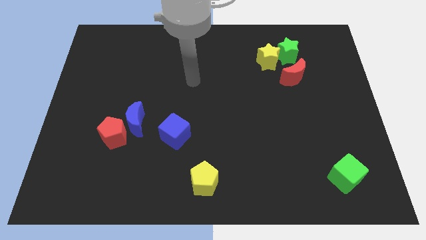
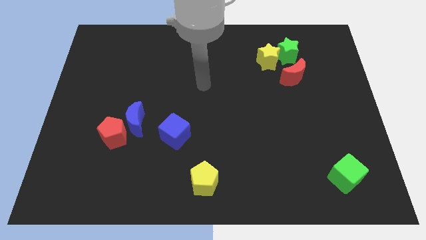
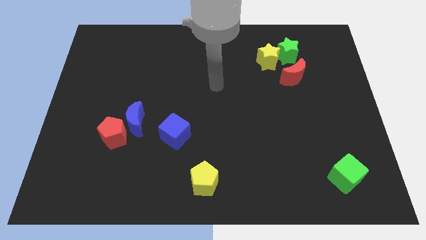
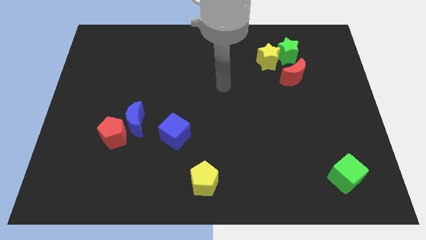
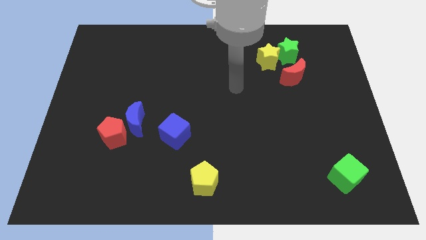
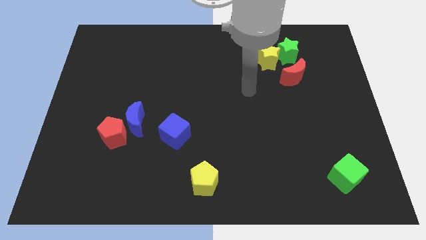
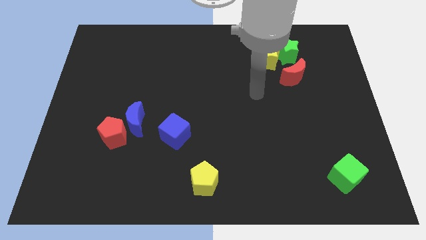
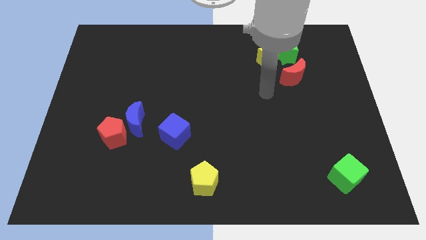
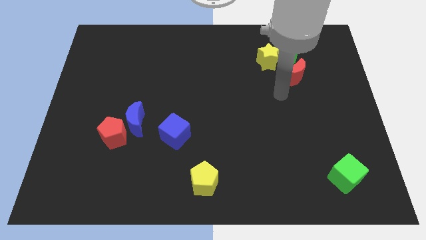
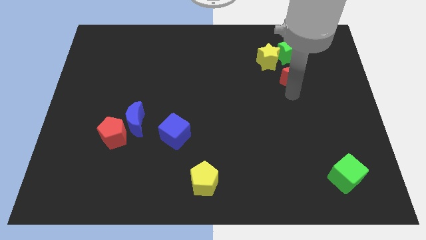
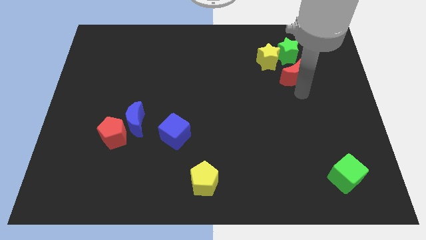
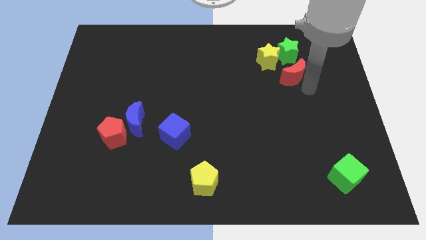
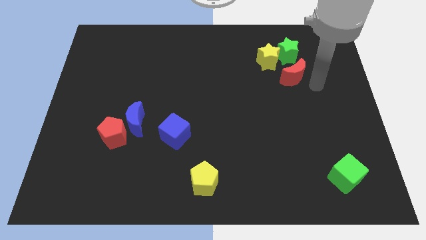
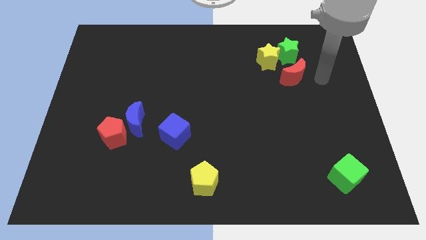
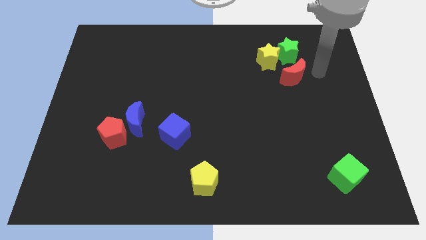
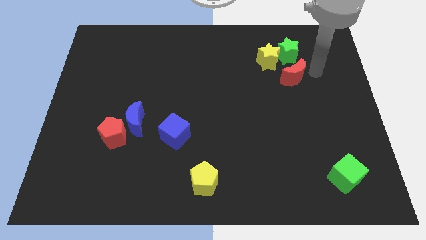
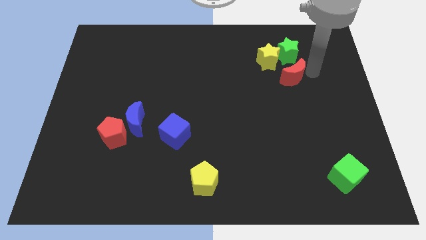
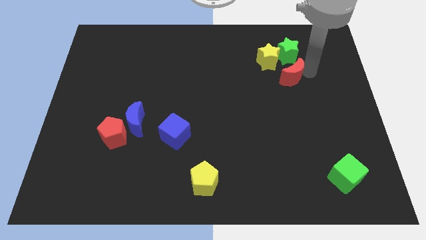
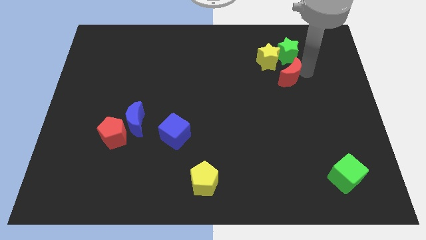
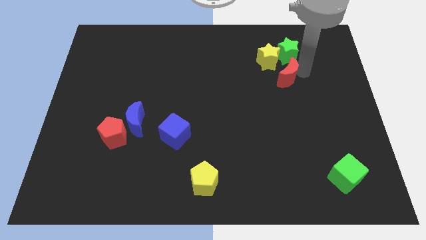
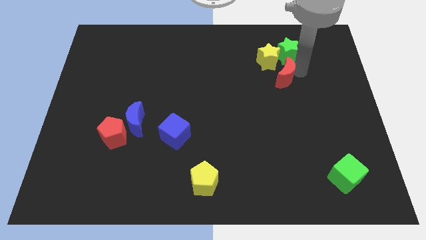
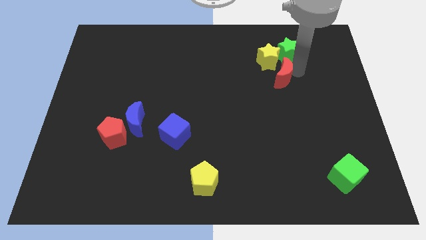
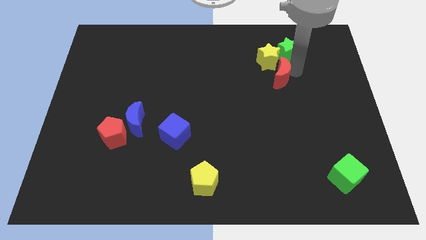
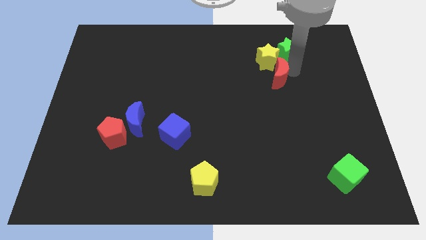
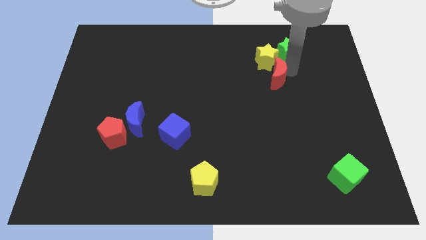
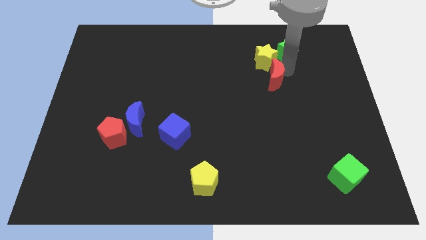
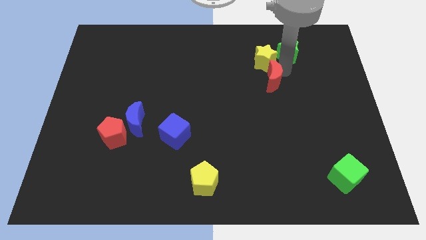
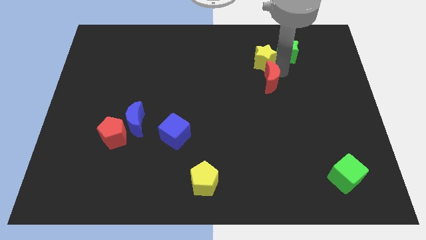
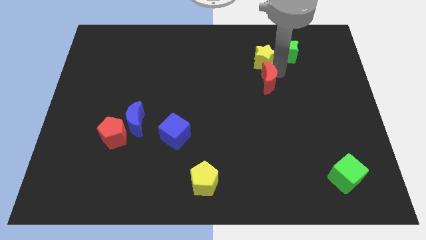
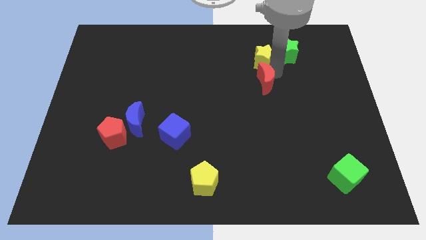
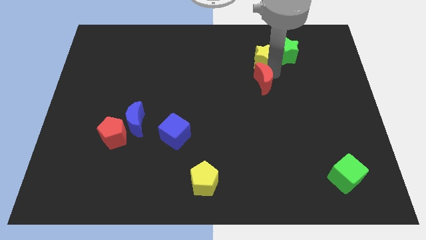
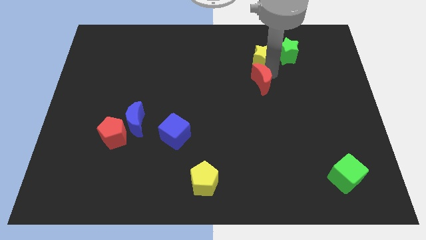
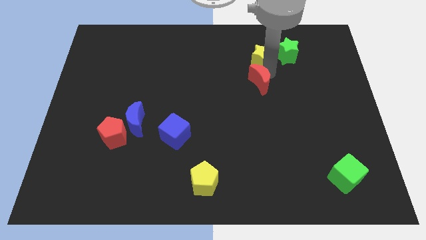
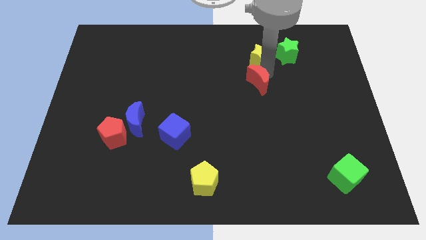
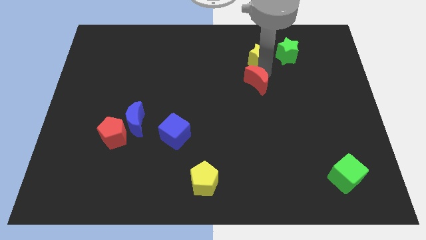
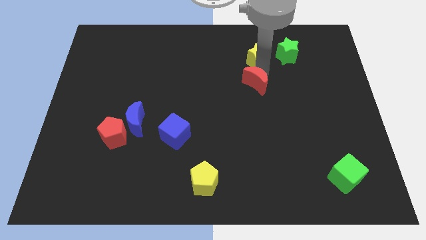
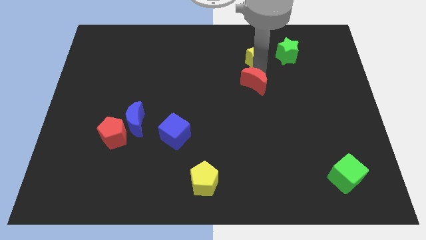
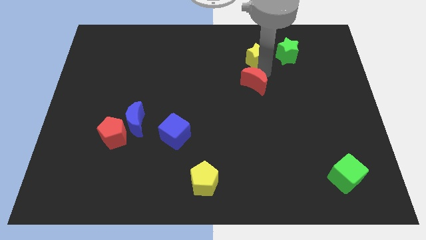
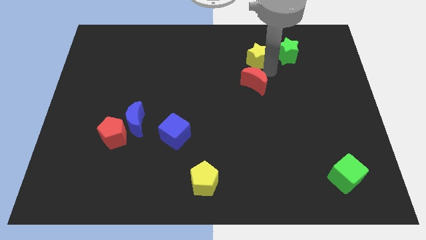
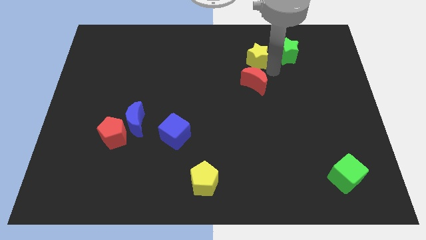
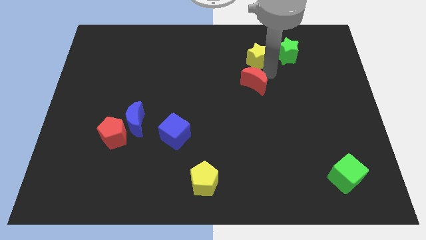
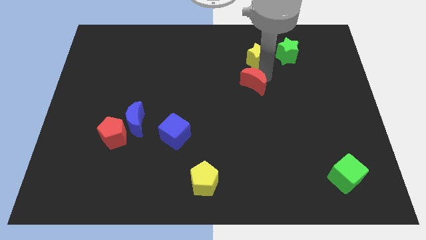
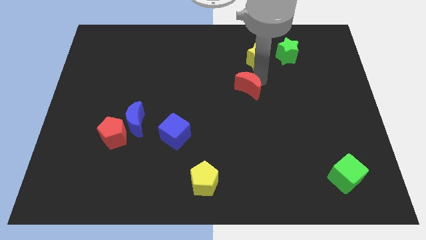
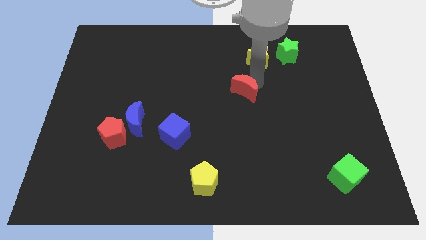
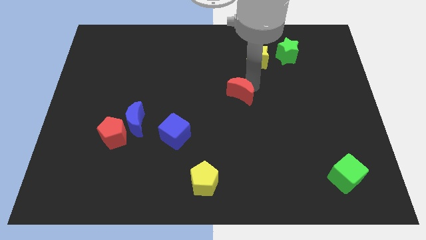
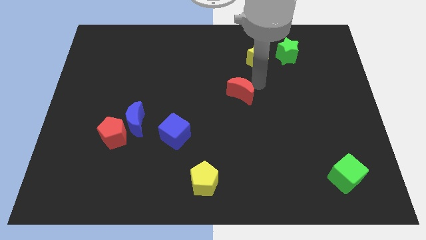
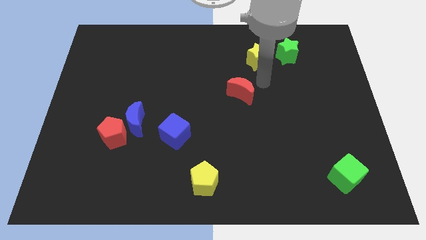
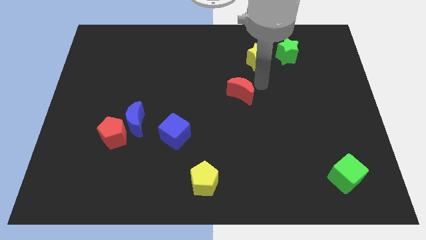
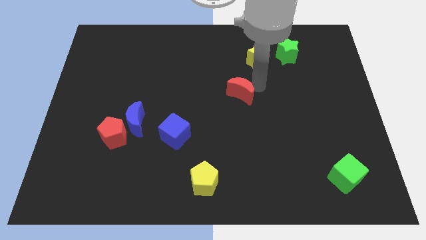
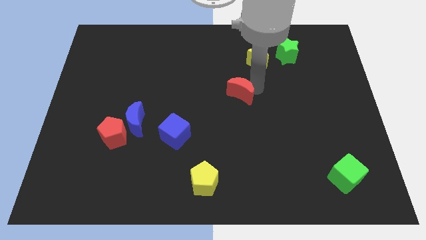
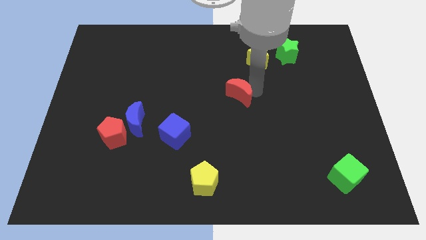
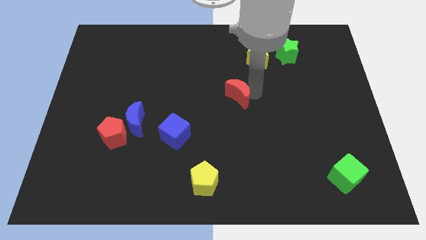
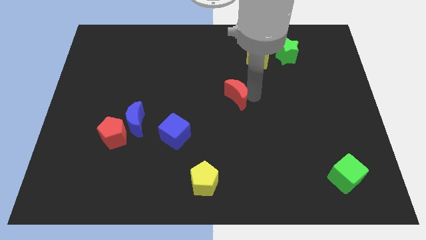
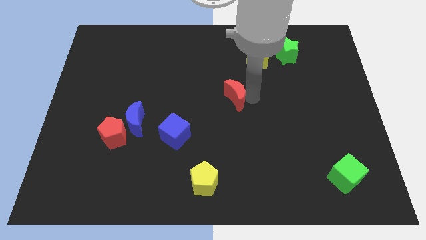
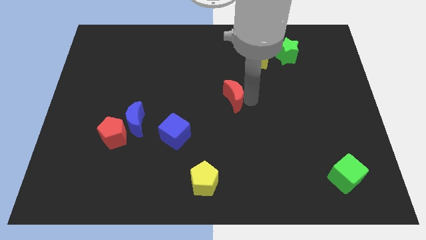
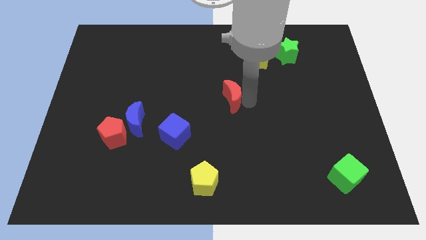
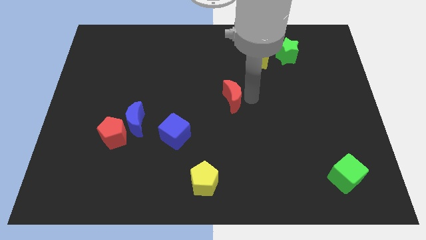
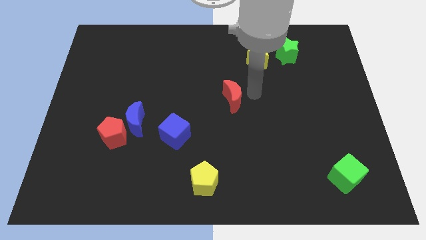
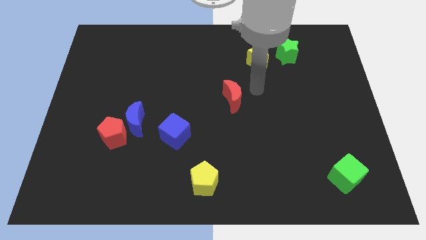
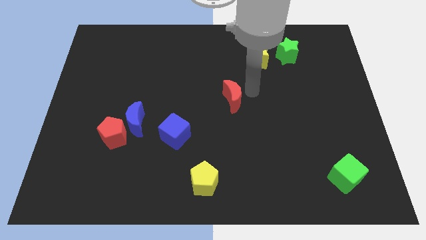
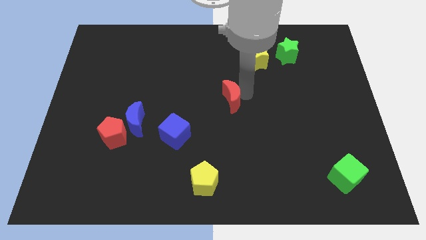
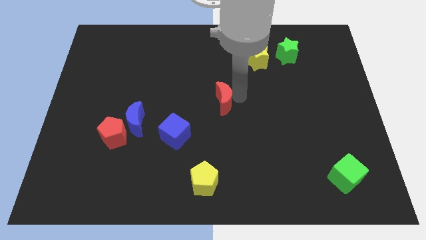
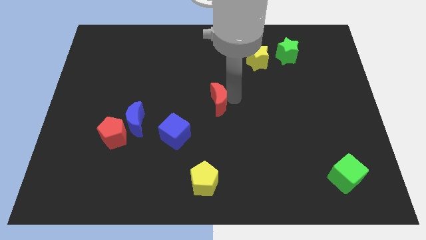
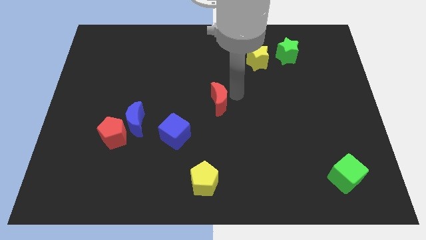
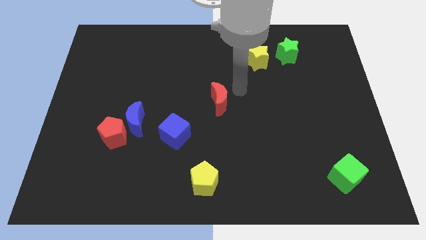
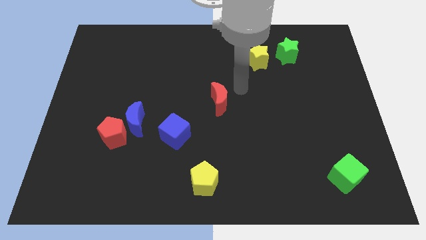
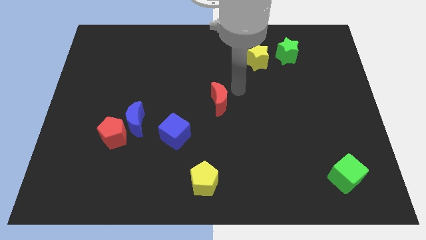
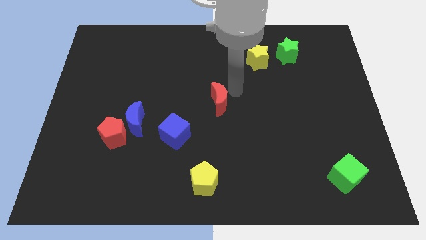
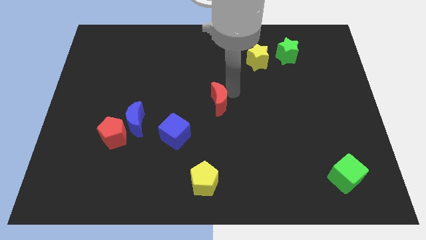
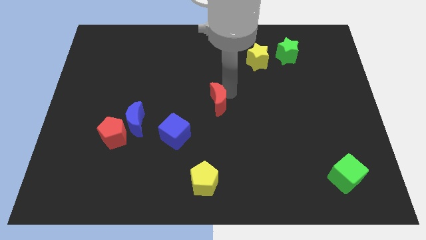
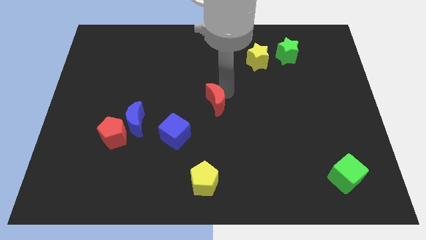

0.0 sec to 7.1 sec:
slide the red moon diagonally up and to the right of the blue cube

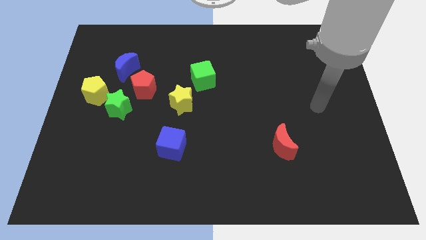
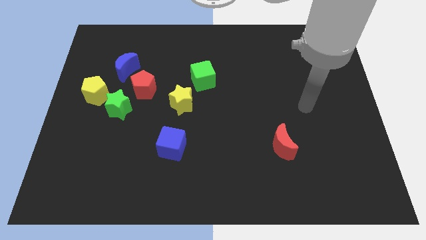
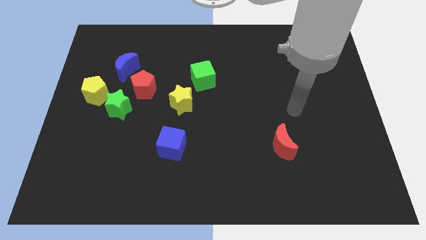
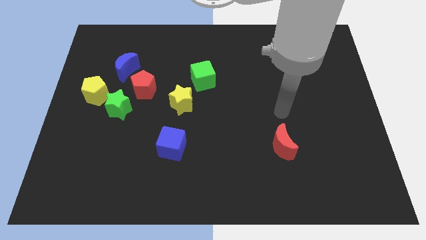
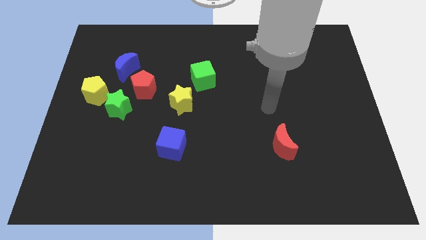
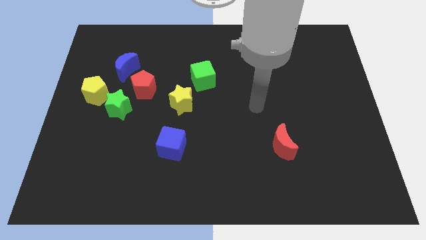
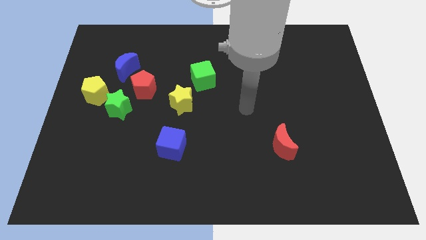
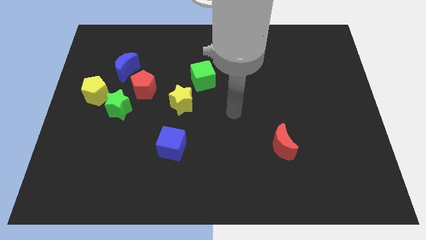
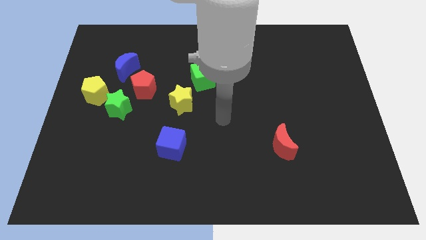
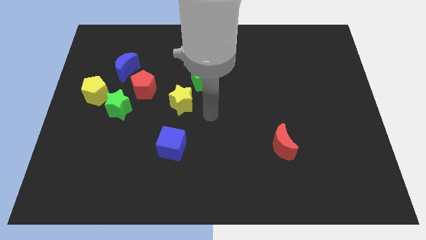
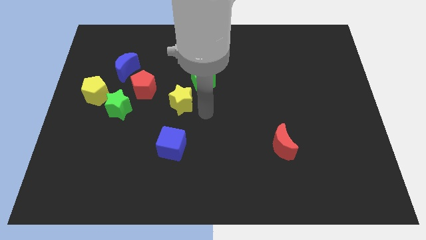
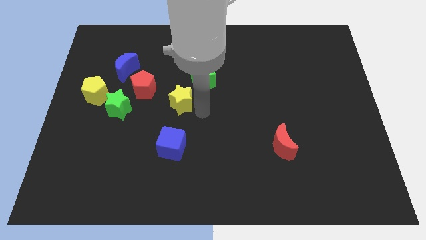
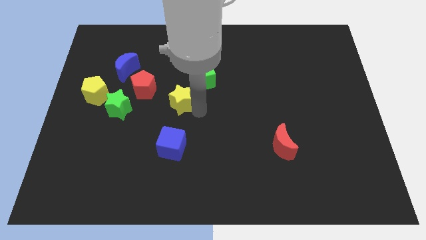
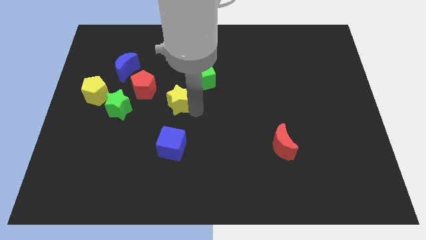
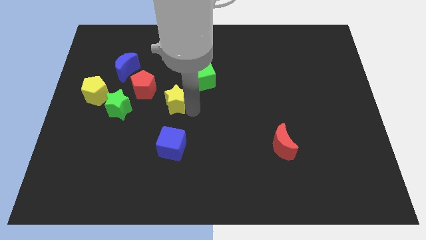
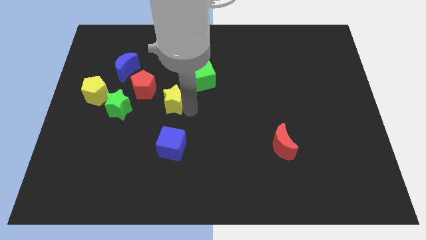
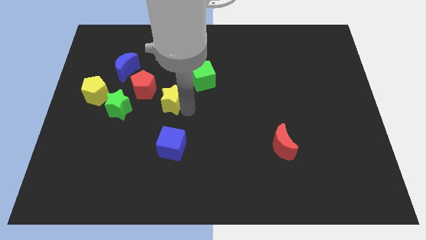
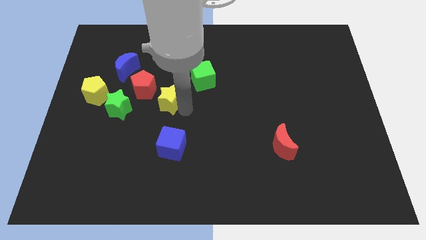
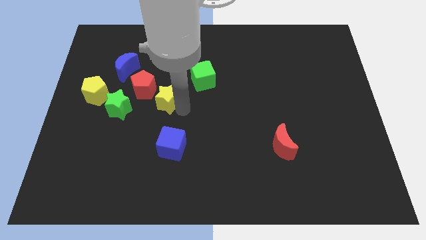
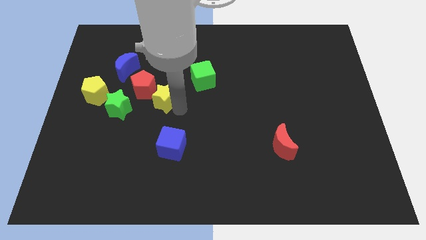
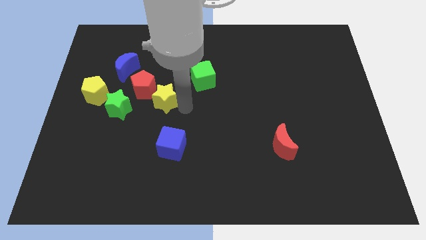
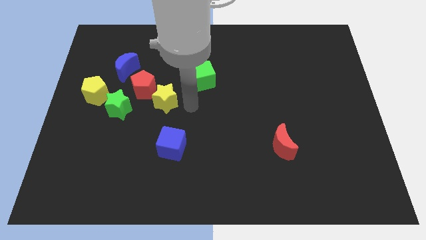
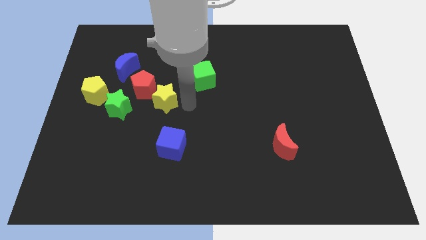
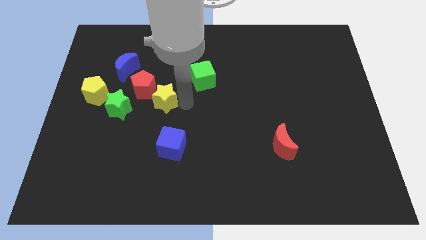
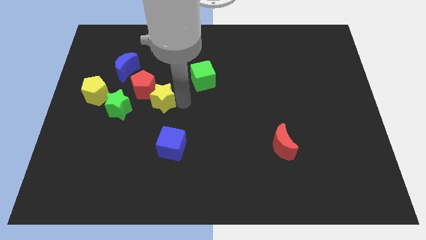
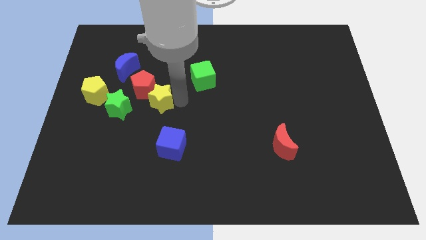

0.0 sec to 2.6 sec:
put the yellow star to the right side of the yellow pentagon
